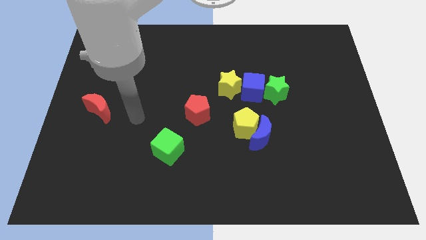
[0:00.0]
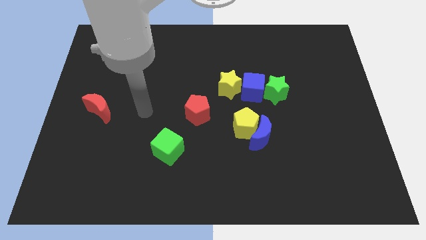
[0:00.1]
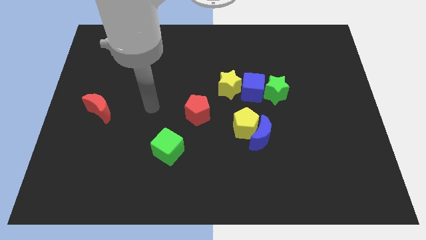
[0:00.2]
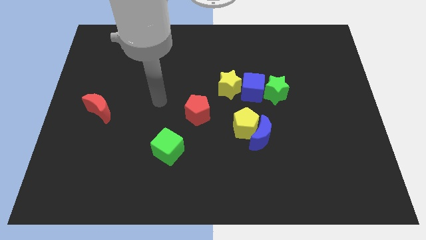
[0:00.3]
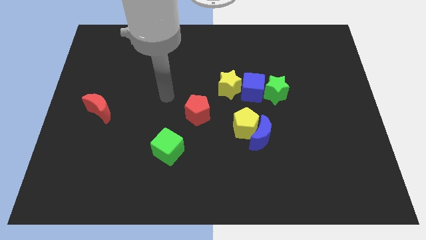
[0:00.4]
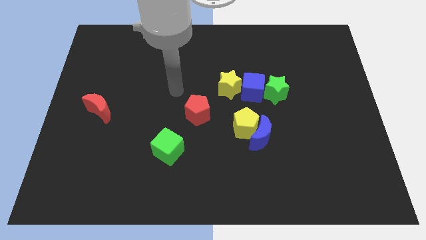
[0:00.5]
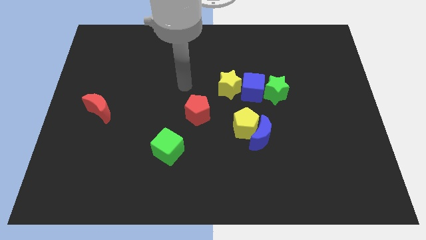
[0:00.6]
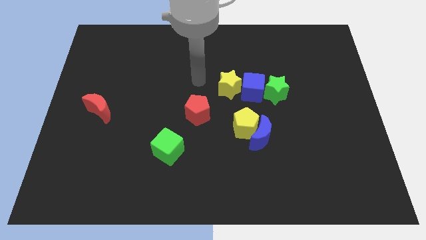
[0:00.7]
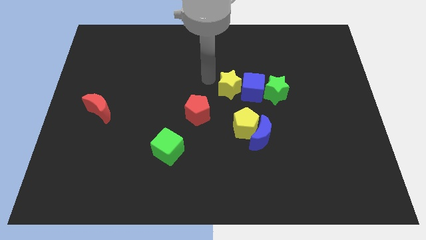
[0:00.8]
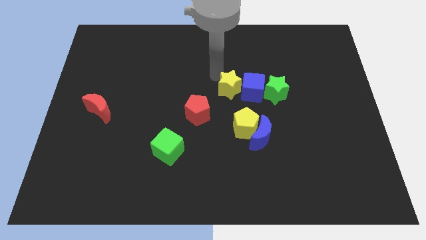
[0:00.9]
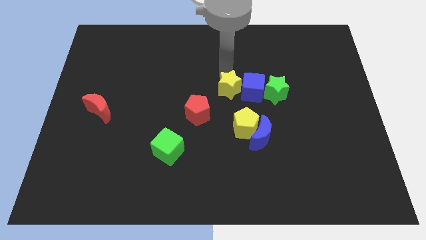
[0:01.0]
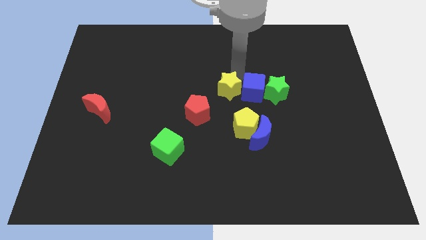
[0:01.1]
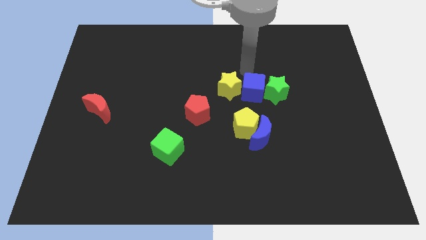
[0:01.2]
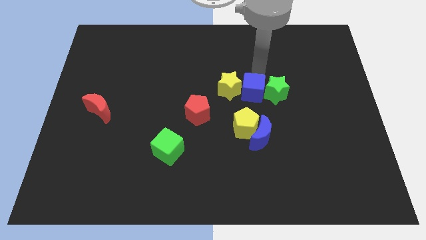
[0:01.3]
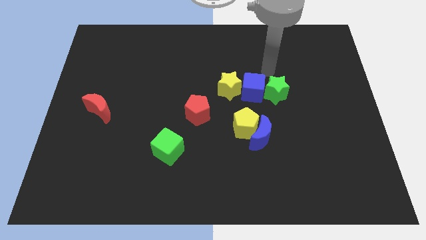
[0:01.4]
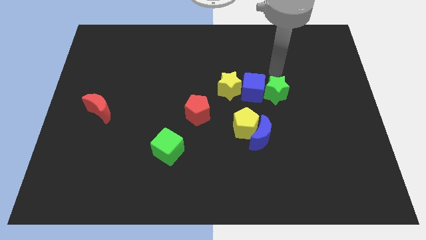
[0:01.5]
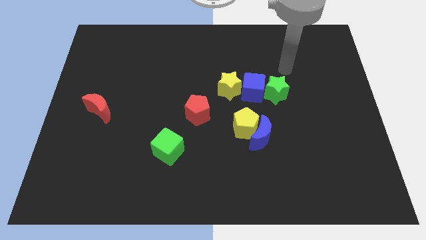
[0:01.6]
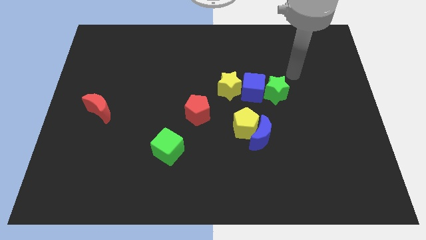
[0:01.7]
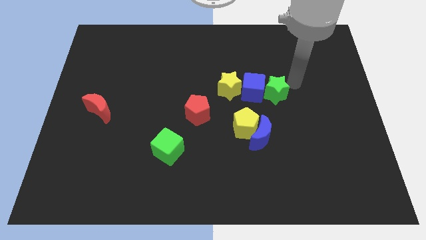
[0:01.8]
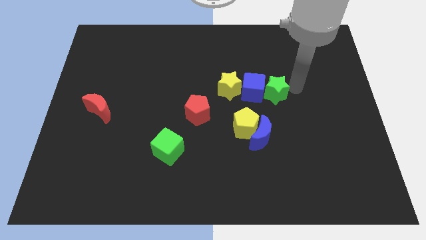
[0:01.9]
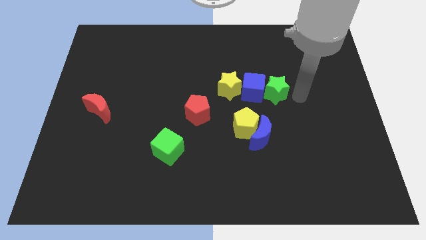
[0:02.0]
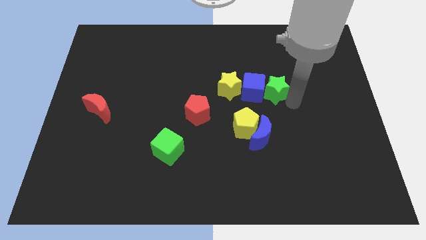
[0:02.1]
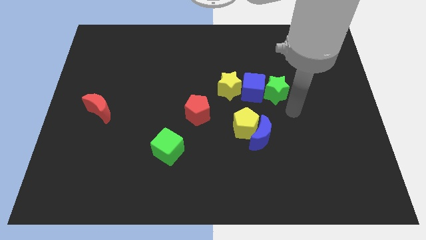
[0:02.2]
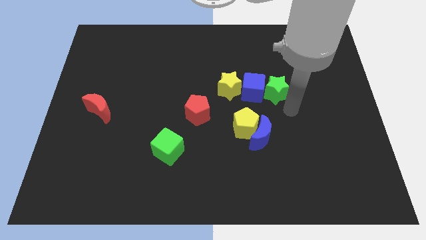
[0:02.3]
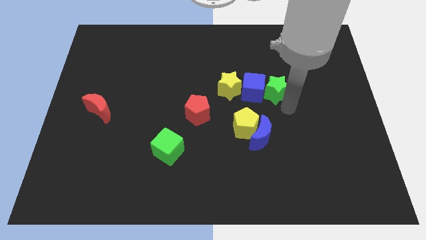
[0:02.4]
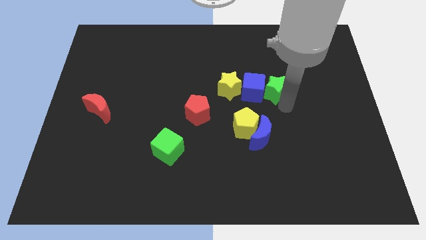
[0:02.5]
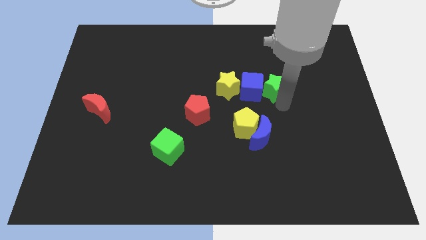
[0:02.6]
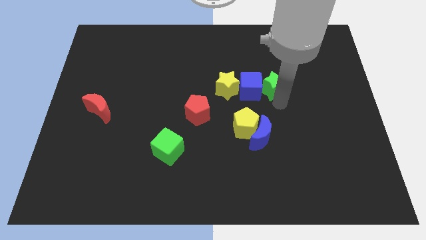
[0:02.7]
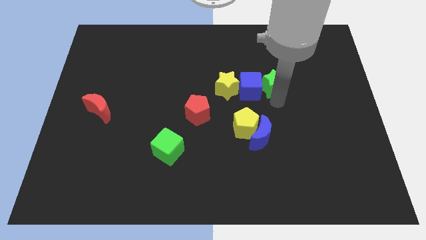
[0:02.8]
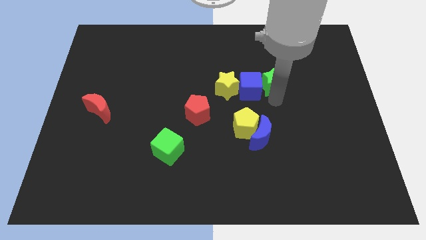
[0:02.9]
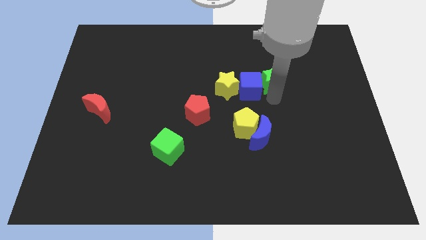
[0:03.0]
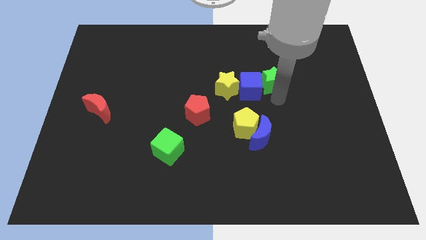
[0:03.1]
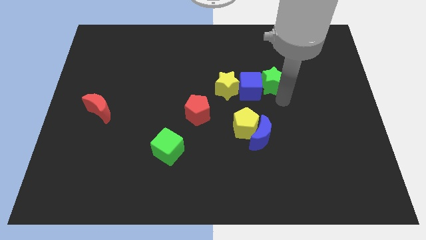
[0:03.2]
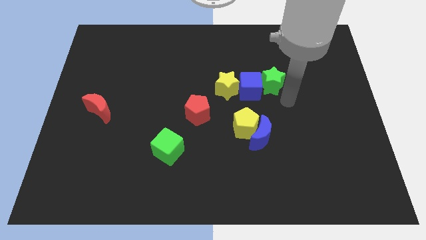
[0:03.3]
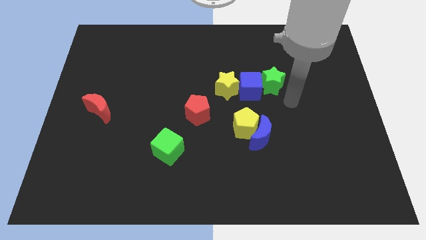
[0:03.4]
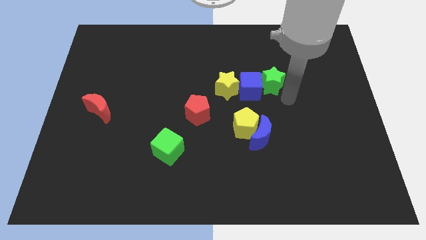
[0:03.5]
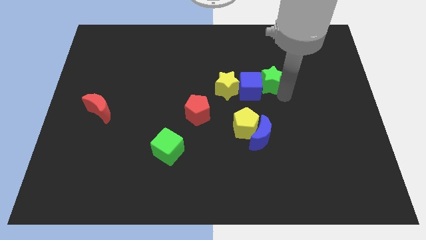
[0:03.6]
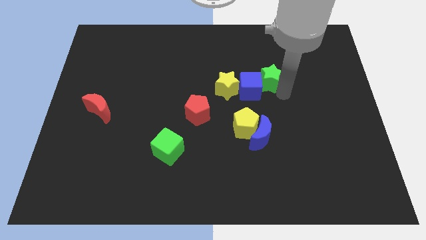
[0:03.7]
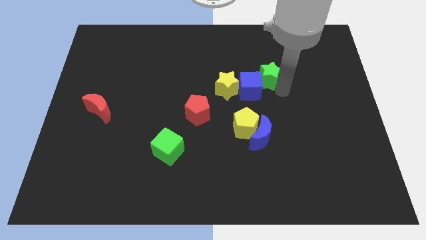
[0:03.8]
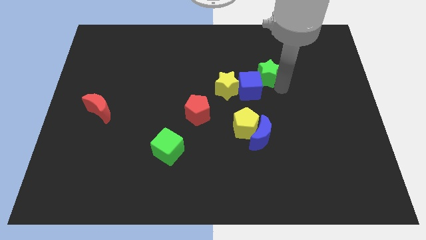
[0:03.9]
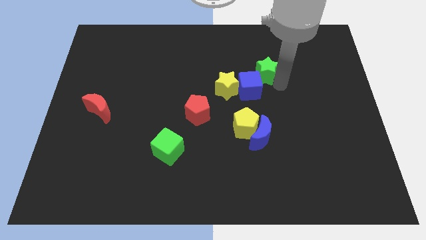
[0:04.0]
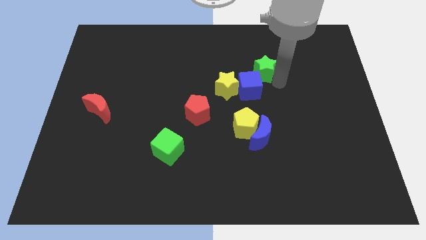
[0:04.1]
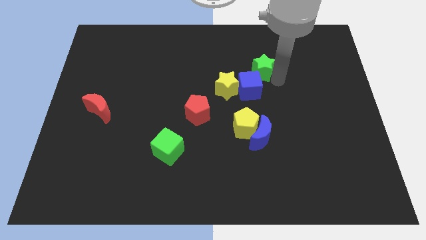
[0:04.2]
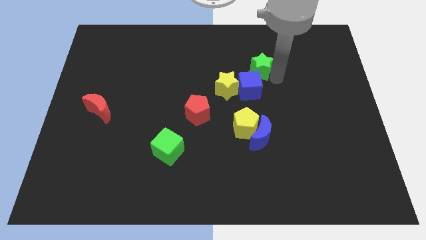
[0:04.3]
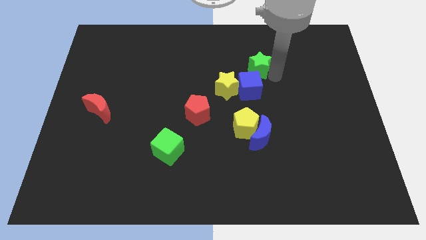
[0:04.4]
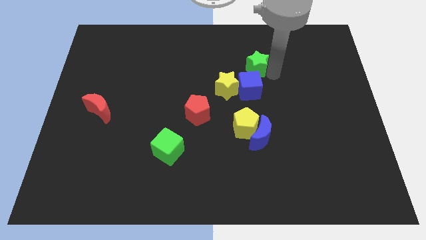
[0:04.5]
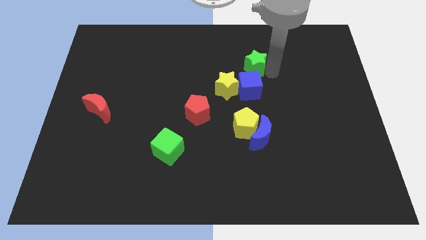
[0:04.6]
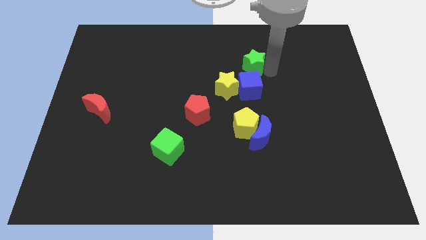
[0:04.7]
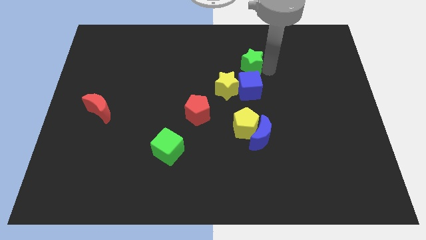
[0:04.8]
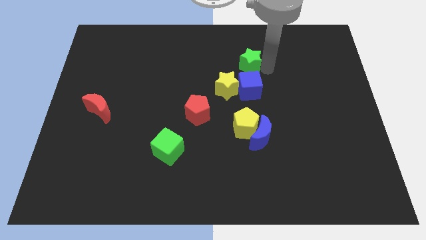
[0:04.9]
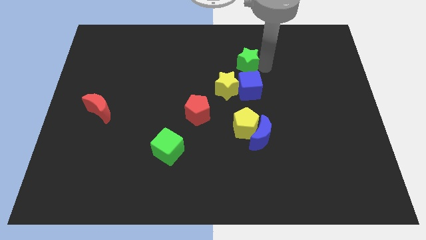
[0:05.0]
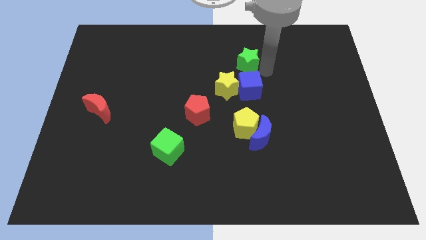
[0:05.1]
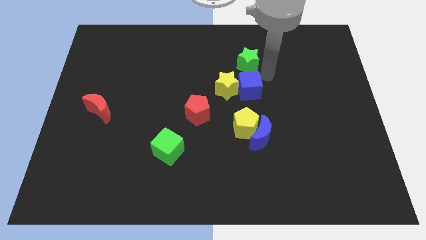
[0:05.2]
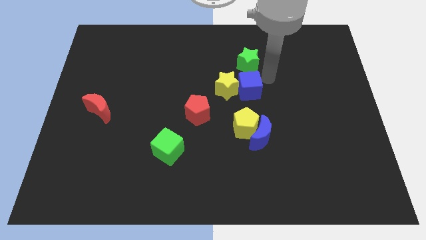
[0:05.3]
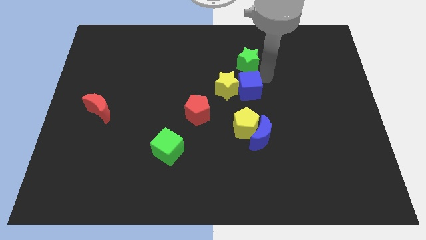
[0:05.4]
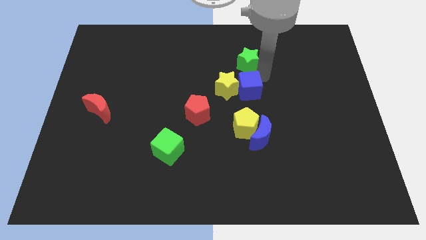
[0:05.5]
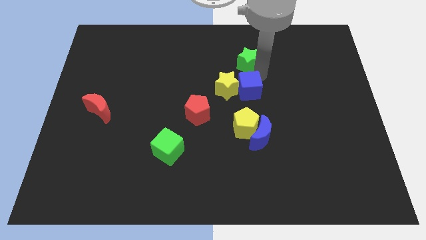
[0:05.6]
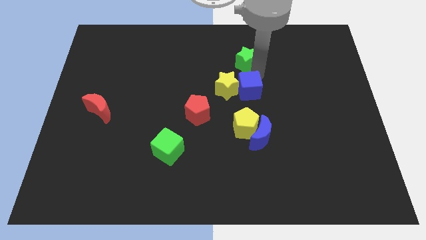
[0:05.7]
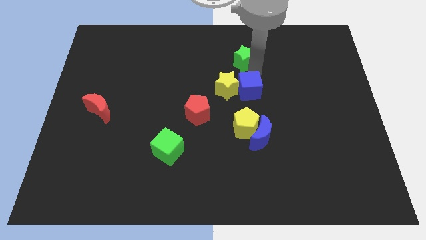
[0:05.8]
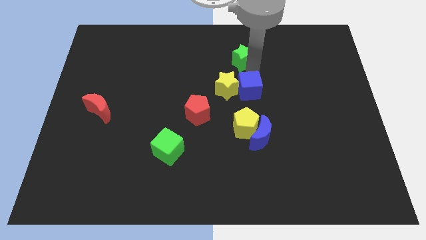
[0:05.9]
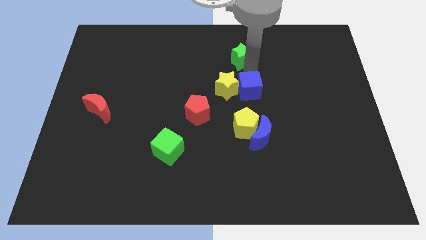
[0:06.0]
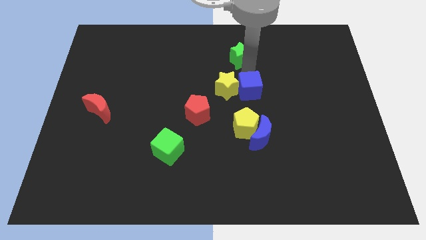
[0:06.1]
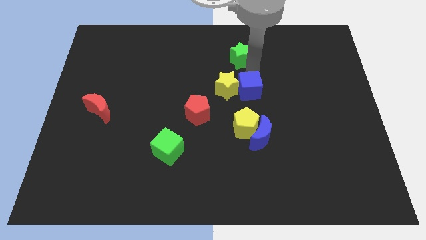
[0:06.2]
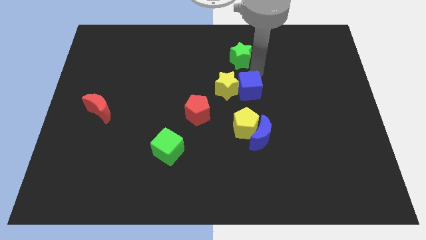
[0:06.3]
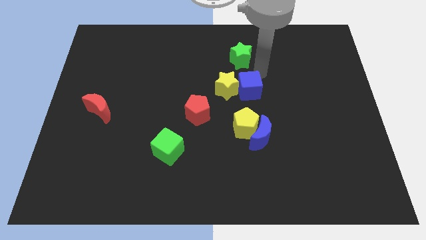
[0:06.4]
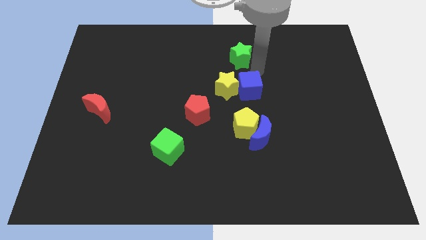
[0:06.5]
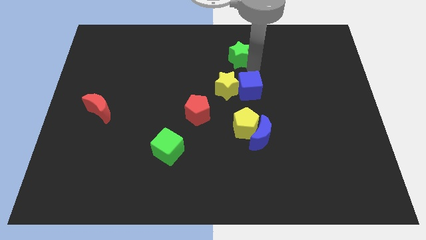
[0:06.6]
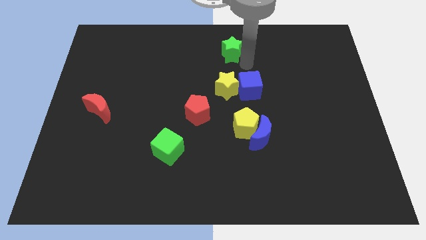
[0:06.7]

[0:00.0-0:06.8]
move the green star to the top side
